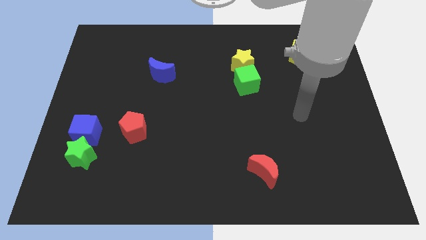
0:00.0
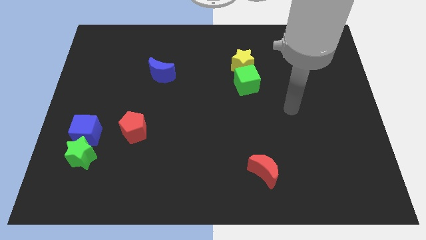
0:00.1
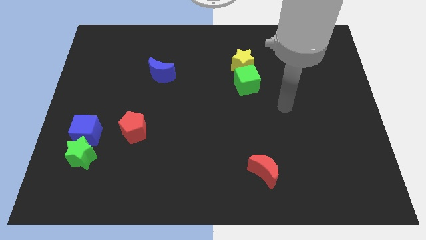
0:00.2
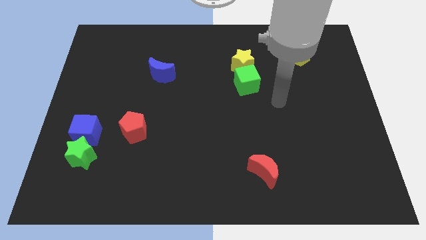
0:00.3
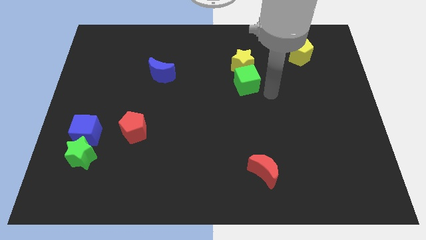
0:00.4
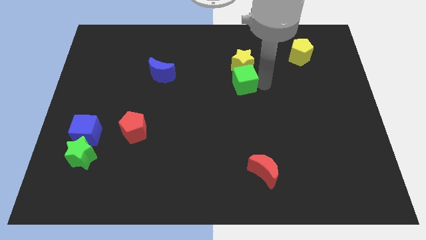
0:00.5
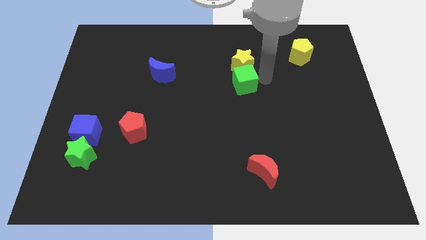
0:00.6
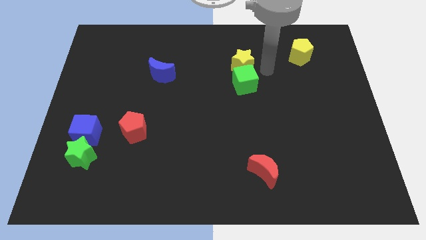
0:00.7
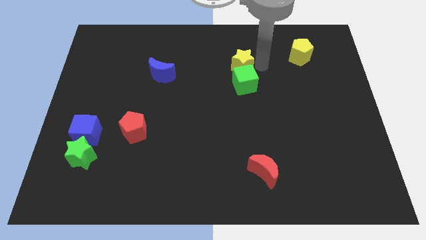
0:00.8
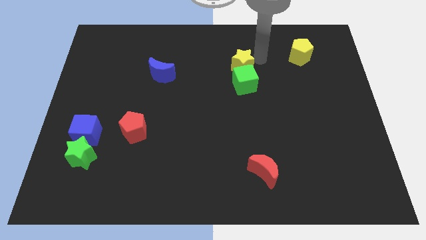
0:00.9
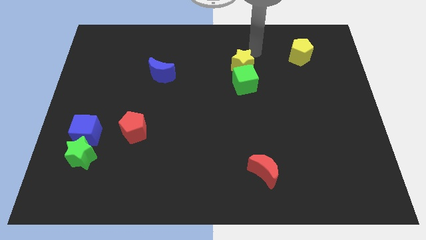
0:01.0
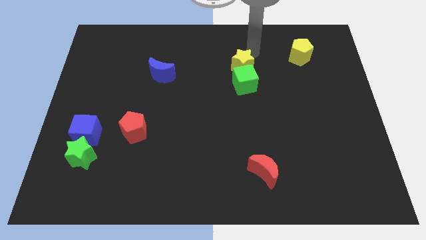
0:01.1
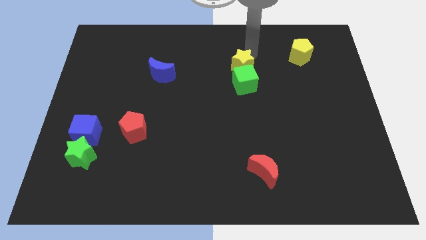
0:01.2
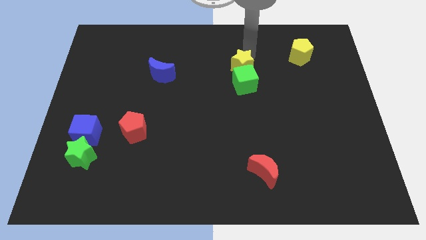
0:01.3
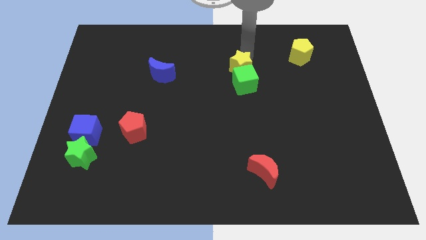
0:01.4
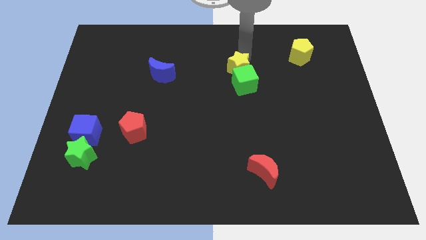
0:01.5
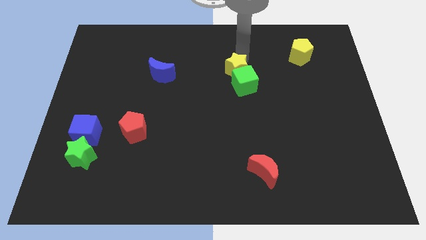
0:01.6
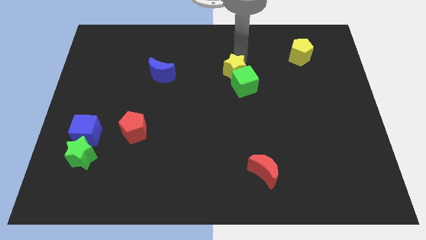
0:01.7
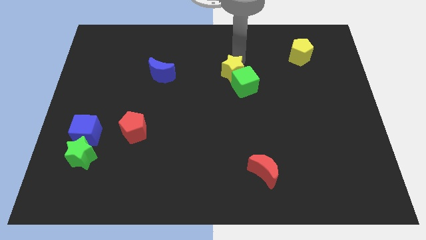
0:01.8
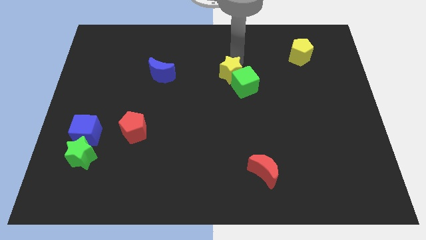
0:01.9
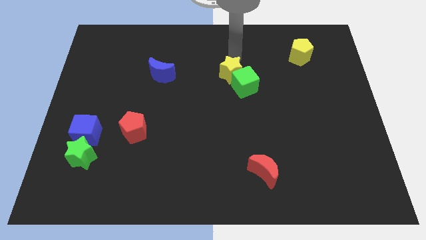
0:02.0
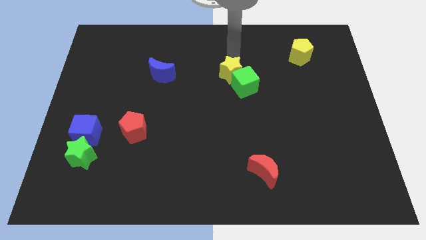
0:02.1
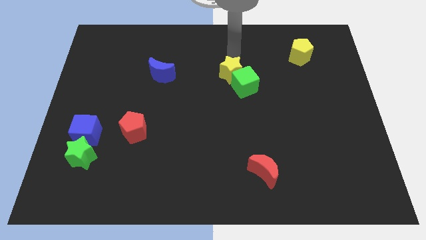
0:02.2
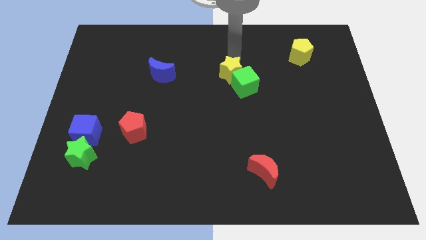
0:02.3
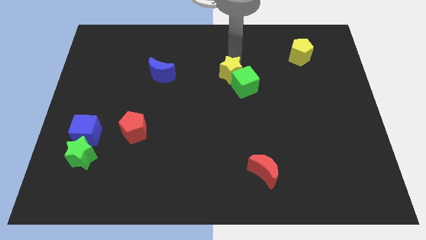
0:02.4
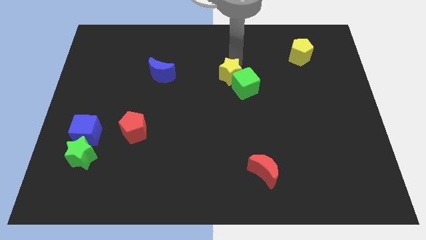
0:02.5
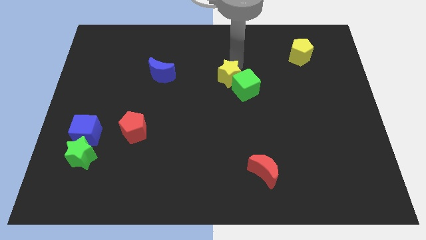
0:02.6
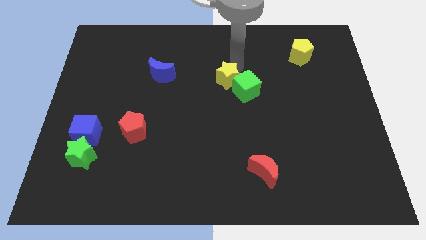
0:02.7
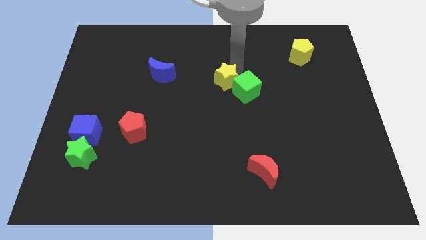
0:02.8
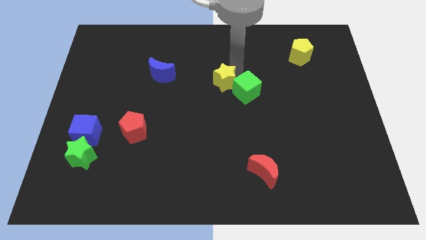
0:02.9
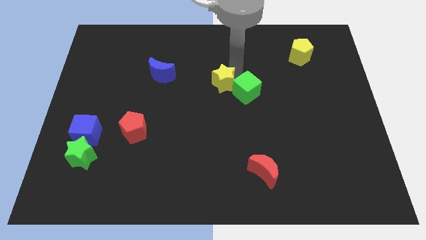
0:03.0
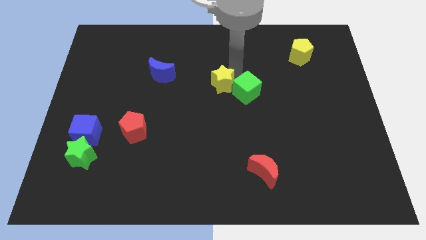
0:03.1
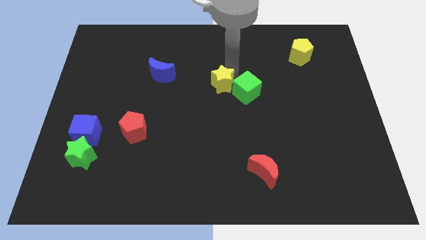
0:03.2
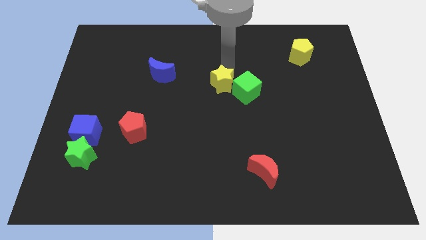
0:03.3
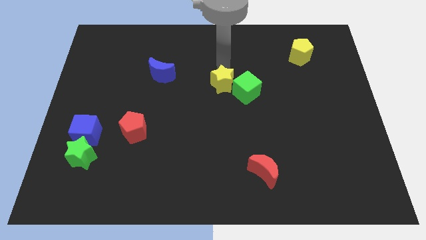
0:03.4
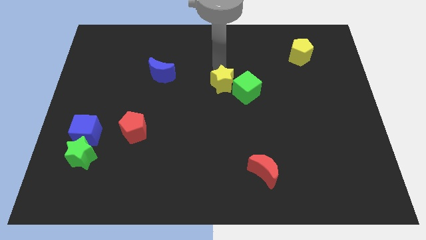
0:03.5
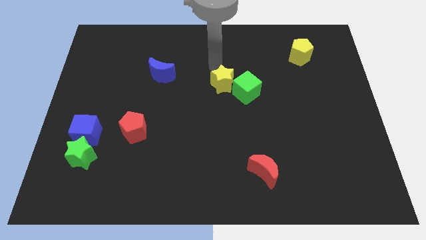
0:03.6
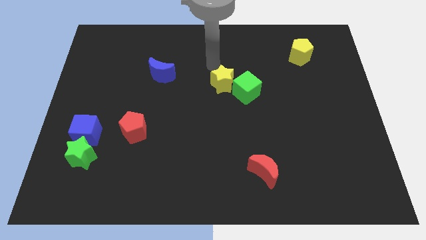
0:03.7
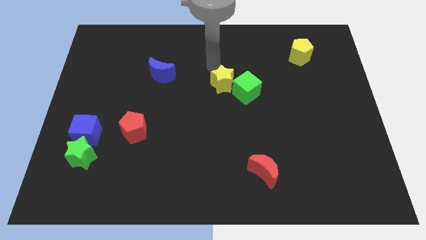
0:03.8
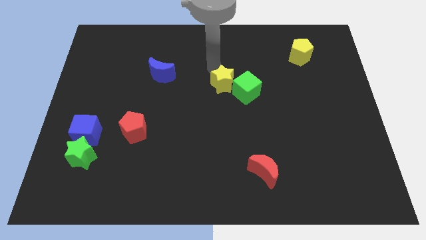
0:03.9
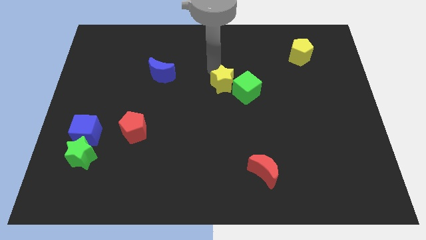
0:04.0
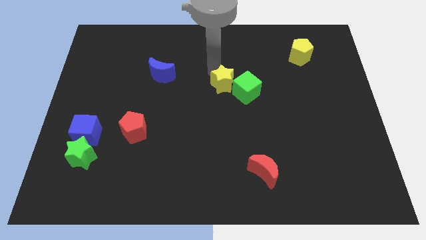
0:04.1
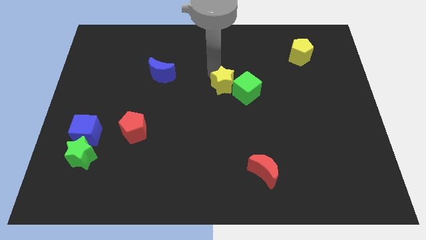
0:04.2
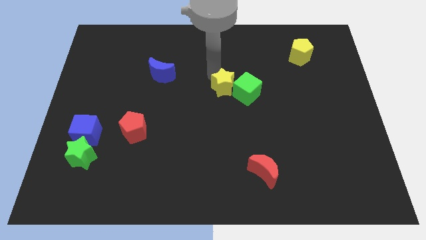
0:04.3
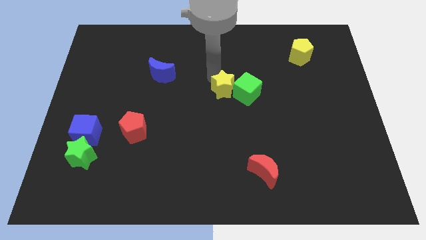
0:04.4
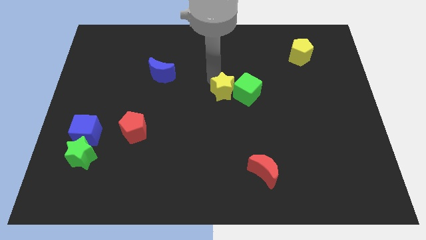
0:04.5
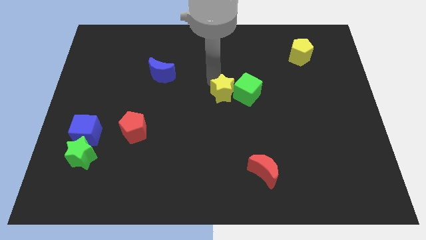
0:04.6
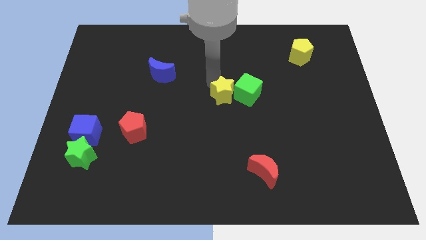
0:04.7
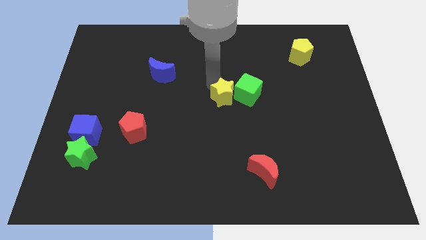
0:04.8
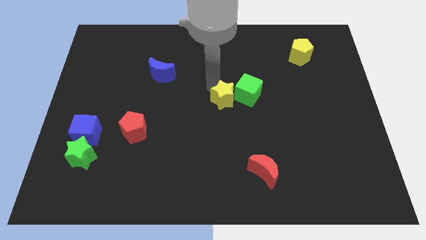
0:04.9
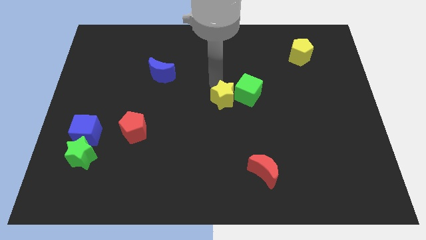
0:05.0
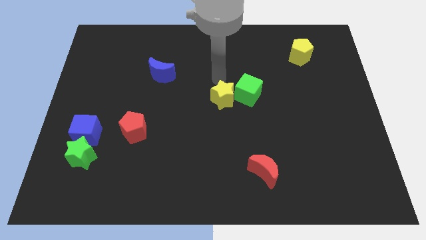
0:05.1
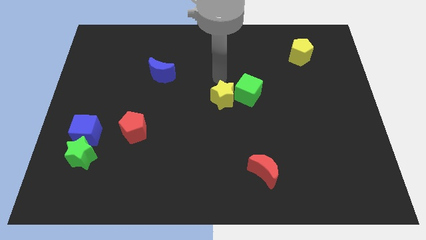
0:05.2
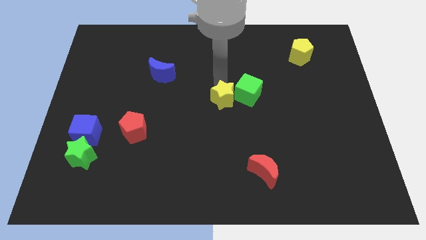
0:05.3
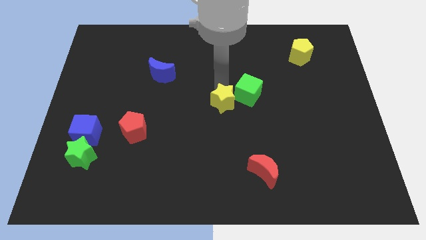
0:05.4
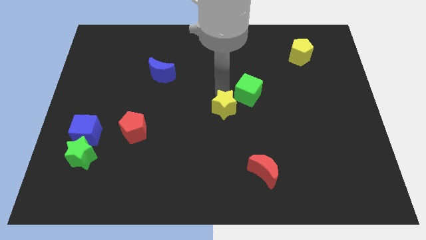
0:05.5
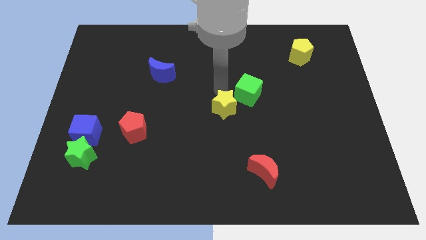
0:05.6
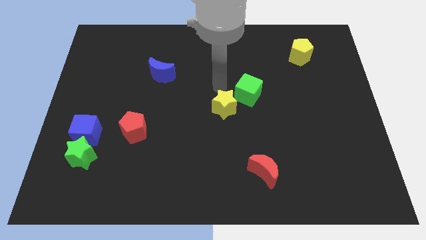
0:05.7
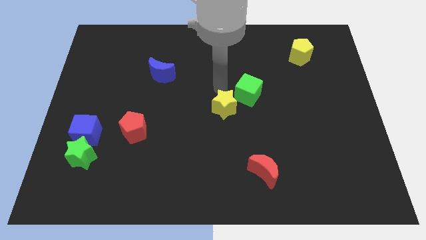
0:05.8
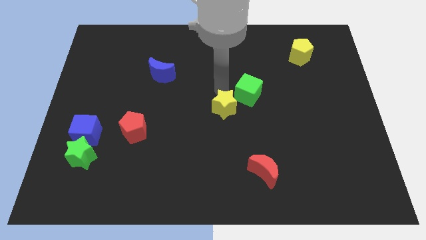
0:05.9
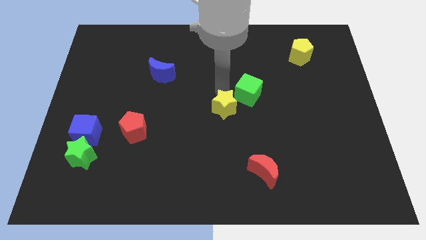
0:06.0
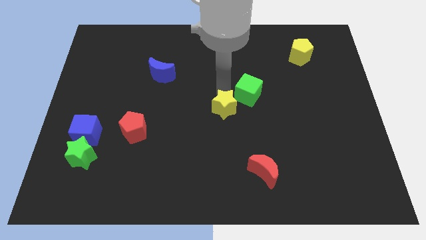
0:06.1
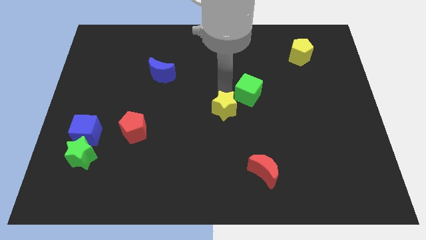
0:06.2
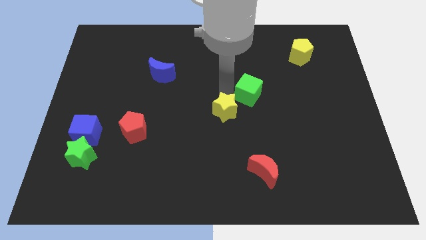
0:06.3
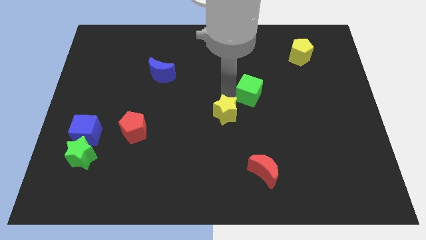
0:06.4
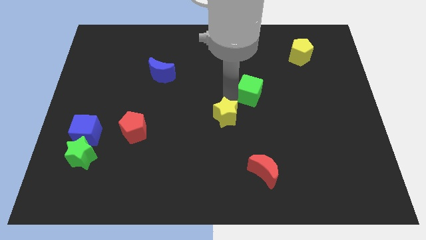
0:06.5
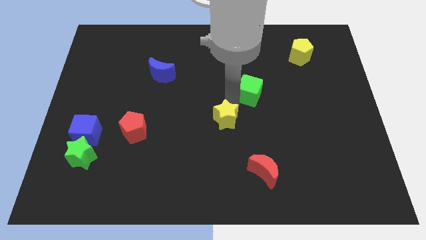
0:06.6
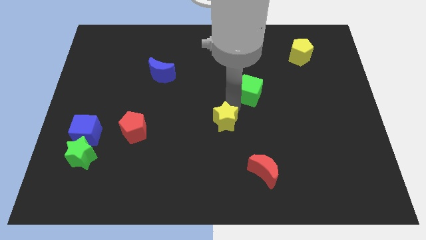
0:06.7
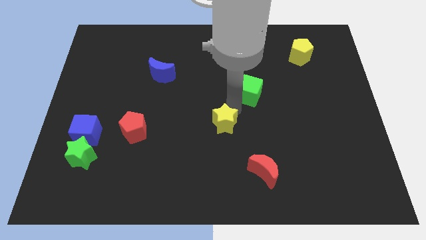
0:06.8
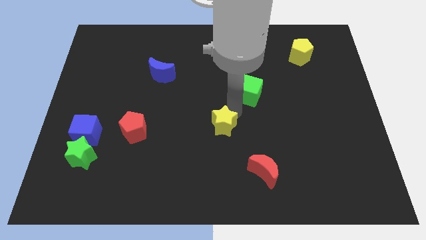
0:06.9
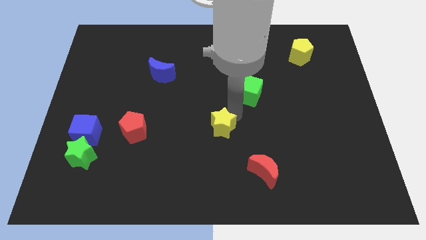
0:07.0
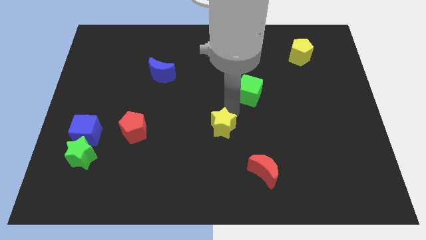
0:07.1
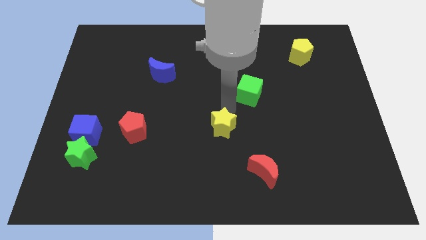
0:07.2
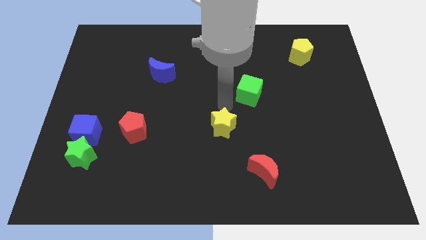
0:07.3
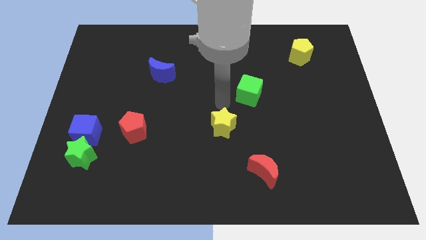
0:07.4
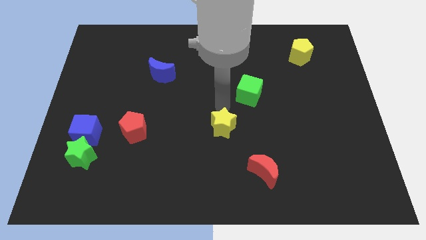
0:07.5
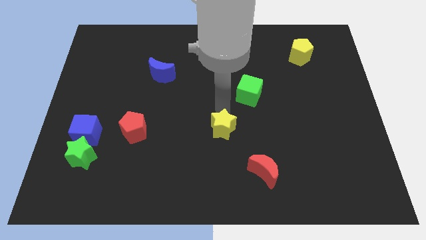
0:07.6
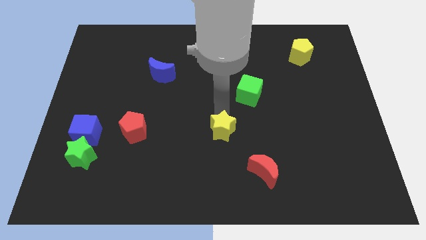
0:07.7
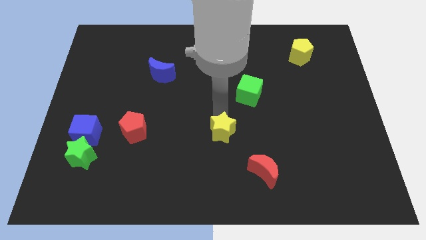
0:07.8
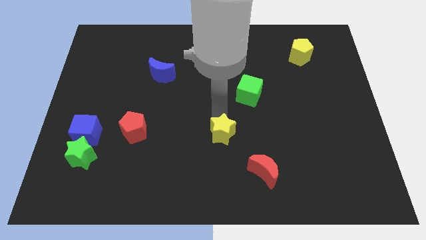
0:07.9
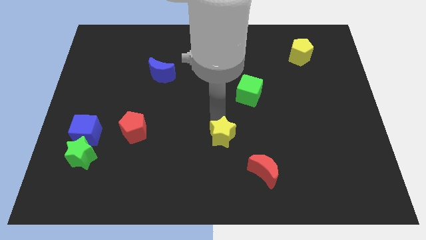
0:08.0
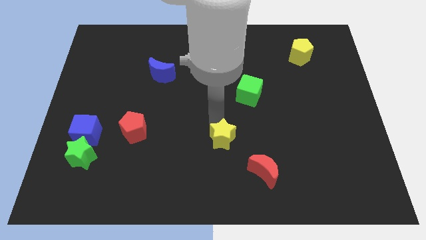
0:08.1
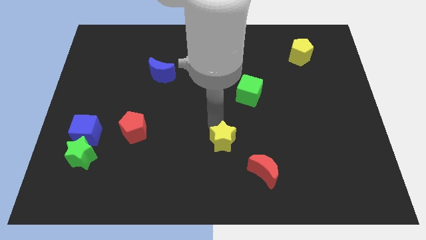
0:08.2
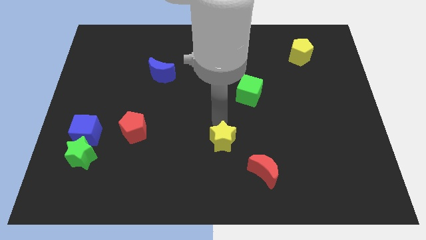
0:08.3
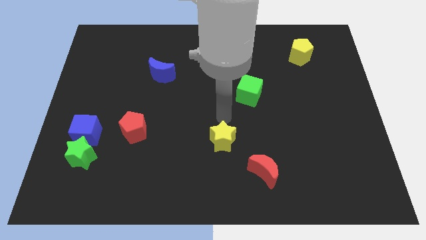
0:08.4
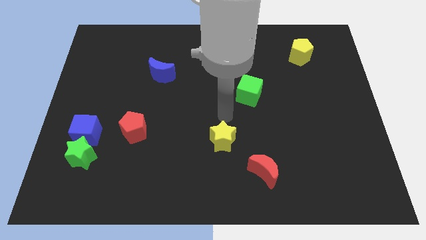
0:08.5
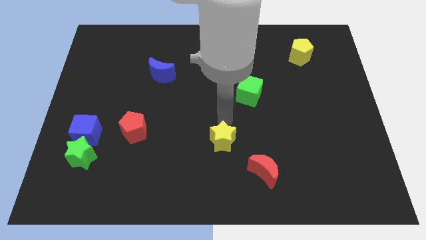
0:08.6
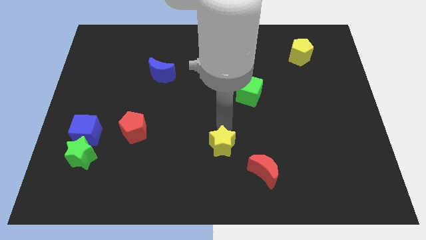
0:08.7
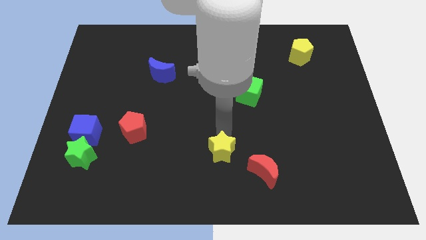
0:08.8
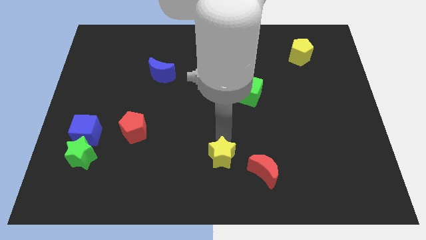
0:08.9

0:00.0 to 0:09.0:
put the yellow star to the bottom side
